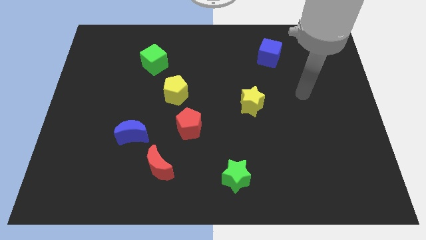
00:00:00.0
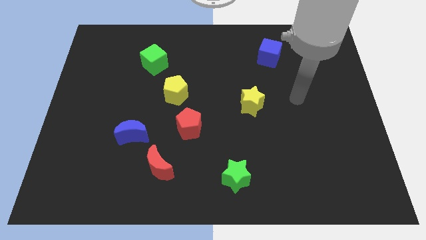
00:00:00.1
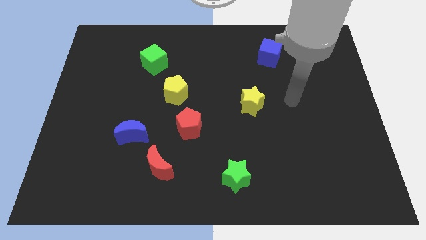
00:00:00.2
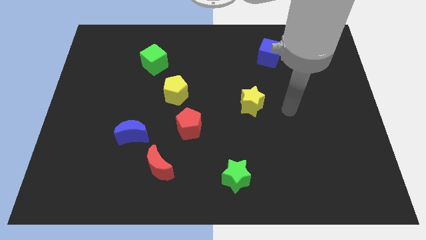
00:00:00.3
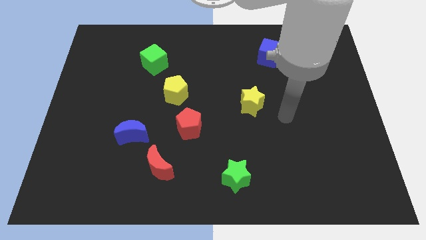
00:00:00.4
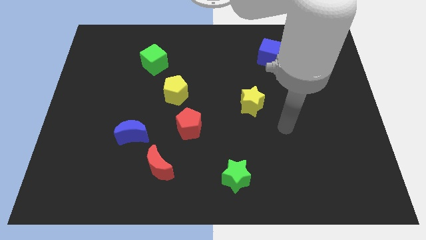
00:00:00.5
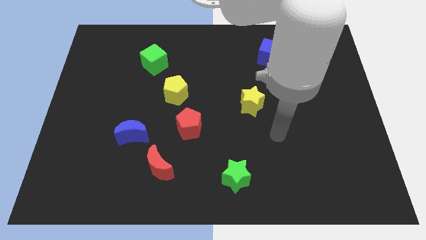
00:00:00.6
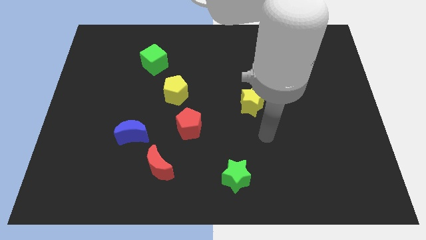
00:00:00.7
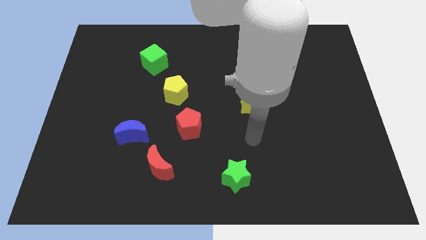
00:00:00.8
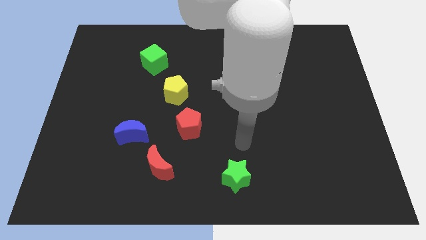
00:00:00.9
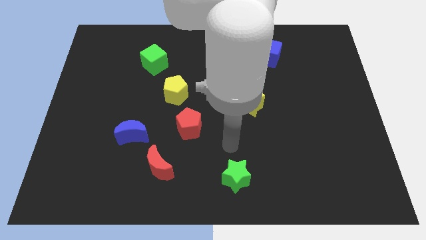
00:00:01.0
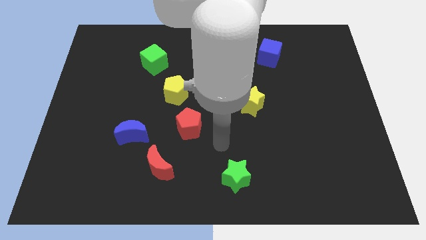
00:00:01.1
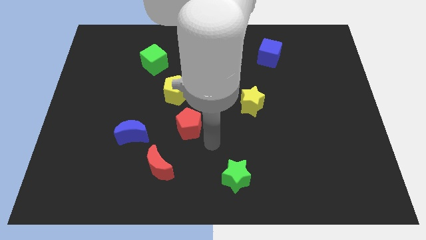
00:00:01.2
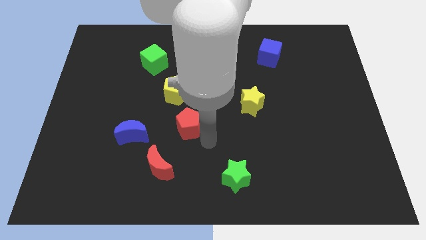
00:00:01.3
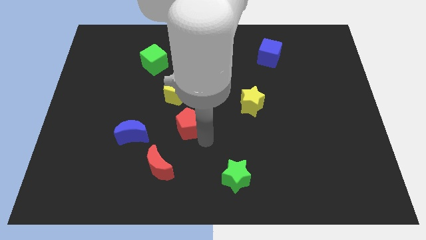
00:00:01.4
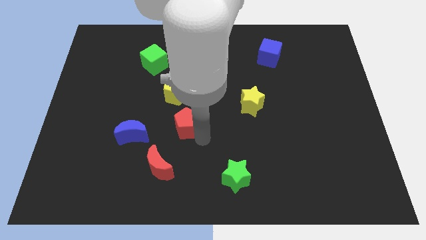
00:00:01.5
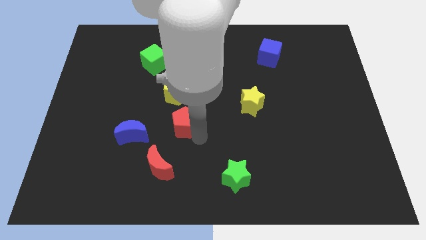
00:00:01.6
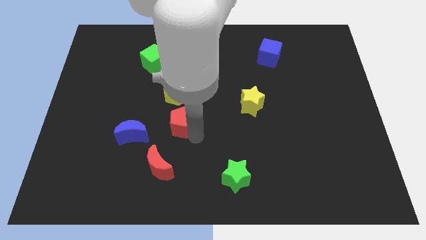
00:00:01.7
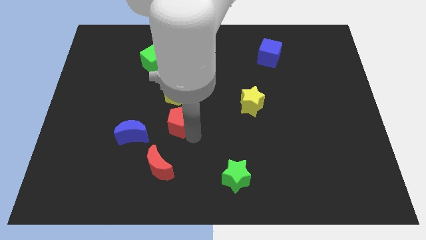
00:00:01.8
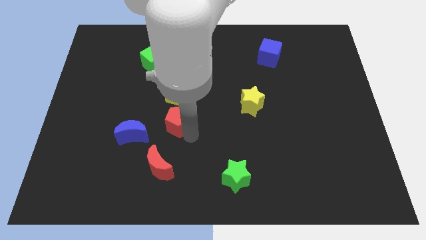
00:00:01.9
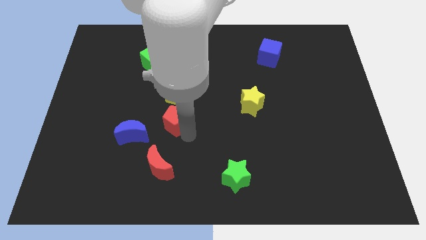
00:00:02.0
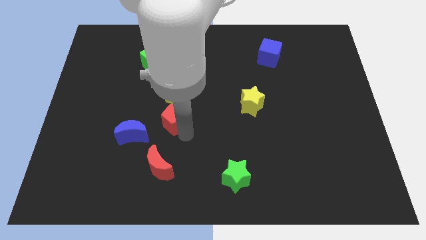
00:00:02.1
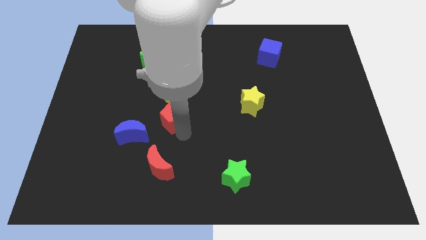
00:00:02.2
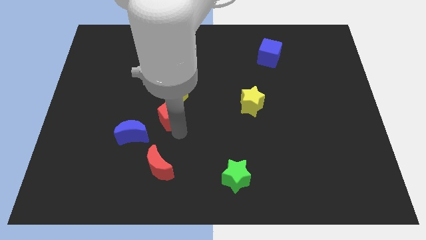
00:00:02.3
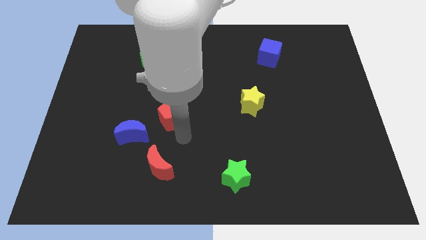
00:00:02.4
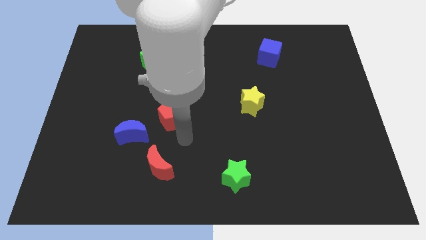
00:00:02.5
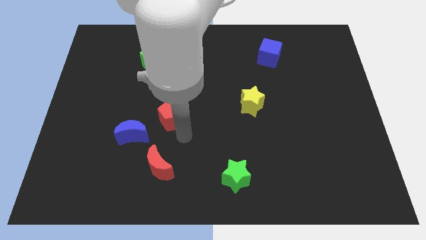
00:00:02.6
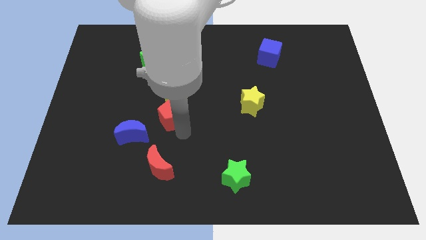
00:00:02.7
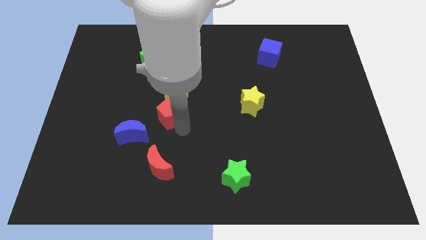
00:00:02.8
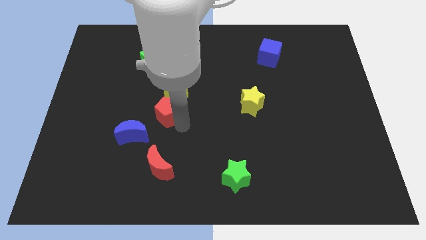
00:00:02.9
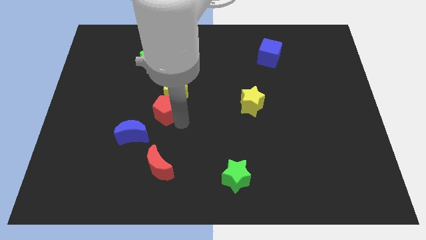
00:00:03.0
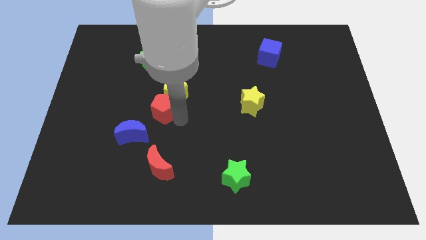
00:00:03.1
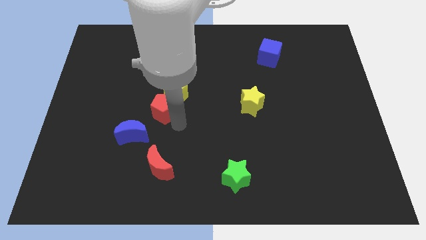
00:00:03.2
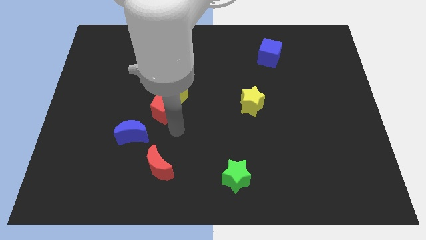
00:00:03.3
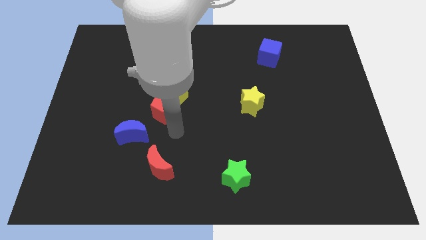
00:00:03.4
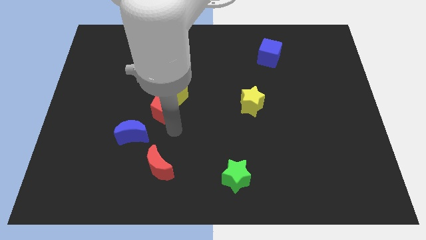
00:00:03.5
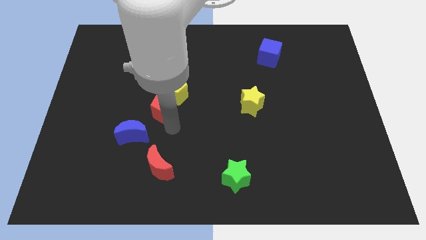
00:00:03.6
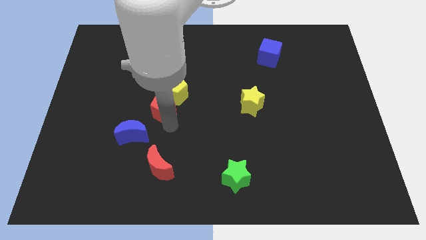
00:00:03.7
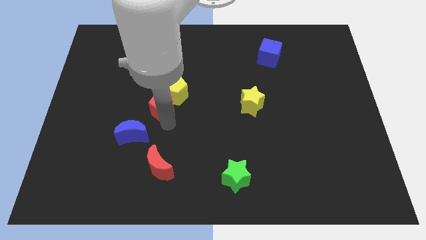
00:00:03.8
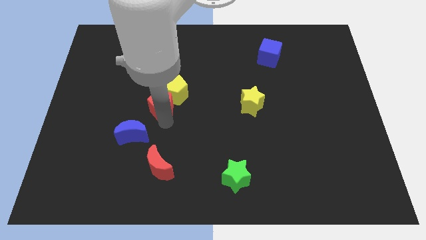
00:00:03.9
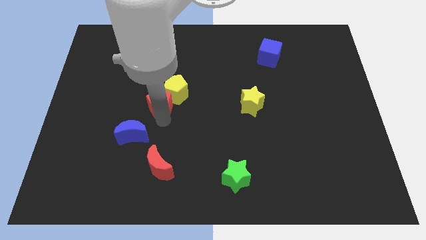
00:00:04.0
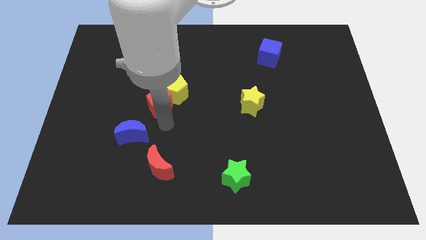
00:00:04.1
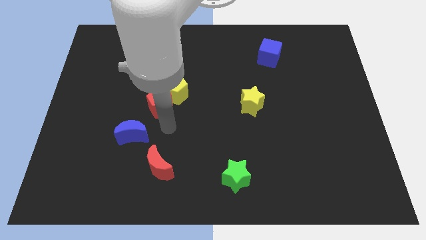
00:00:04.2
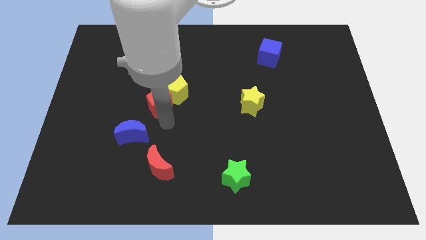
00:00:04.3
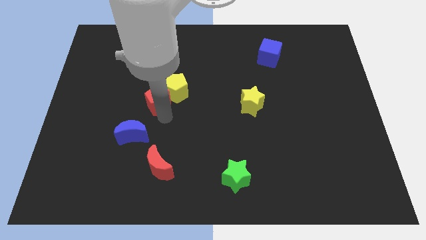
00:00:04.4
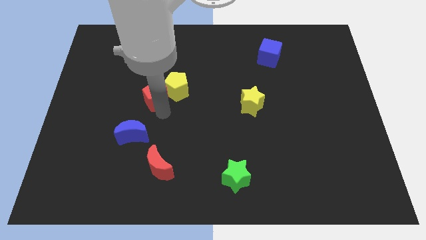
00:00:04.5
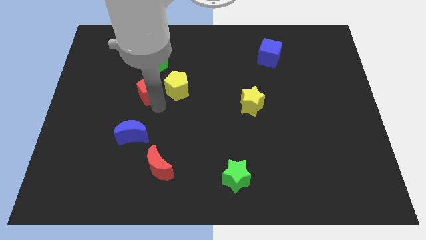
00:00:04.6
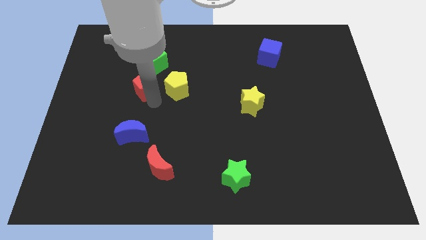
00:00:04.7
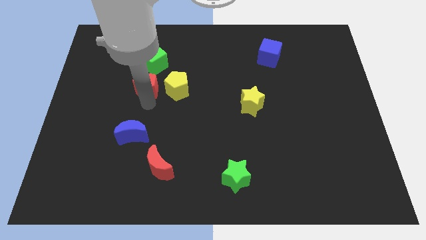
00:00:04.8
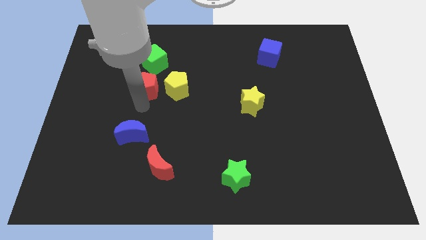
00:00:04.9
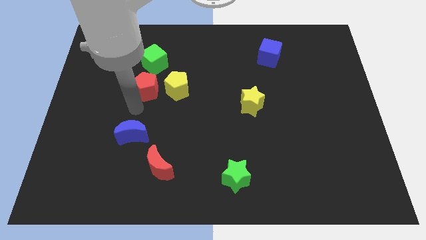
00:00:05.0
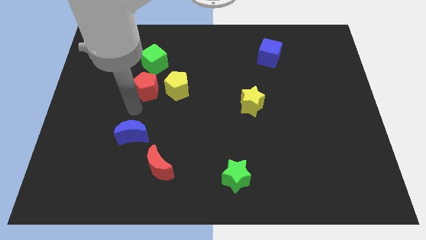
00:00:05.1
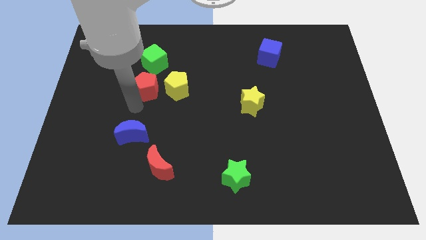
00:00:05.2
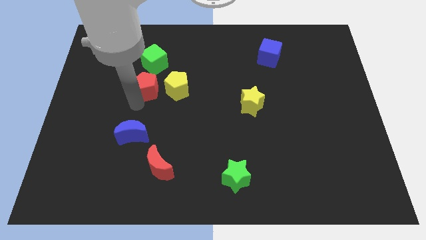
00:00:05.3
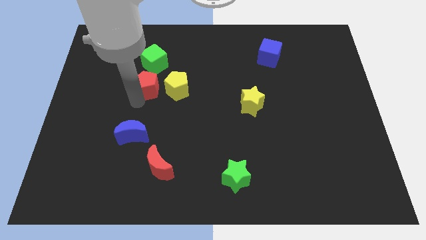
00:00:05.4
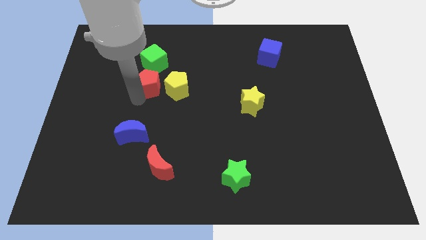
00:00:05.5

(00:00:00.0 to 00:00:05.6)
slide the red pentagon to the top left of the yellow pentagon
